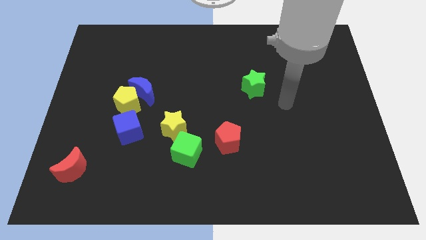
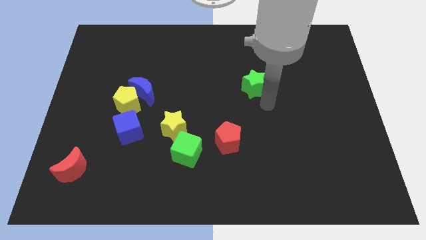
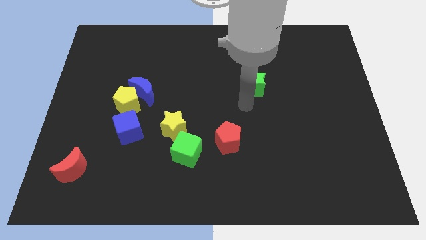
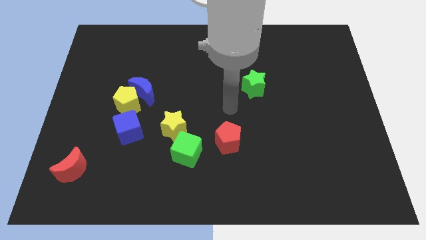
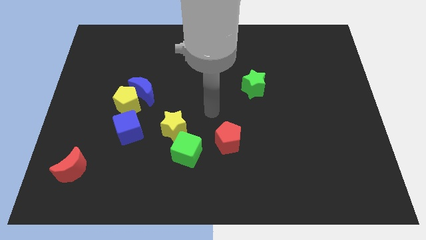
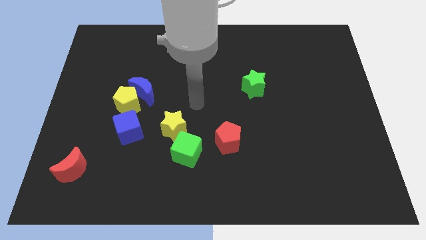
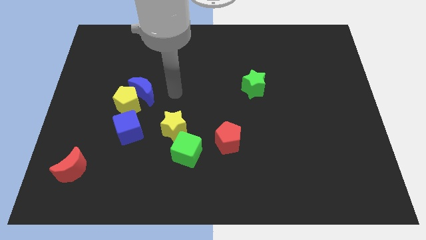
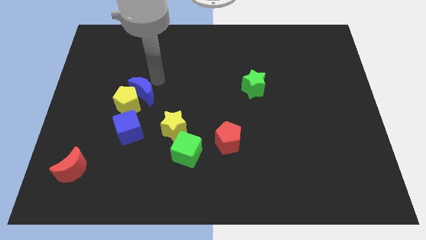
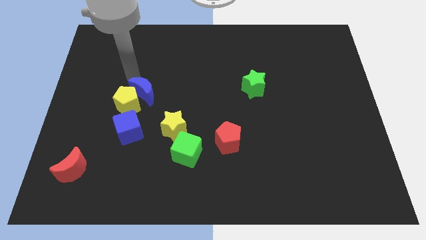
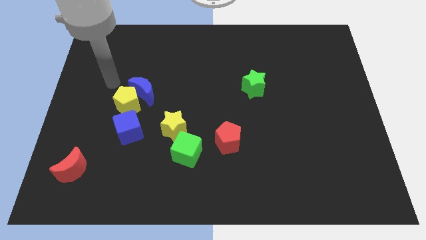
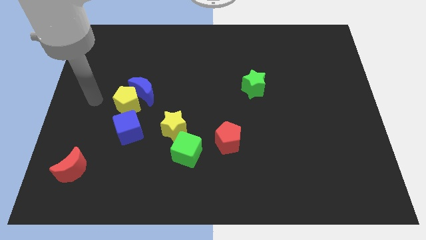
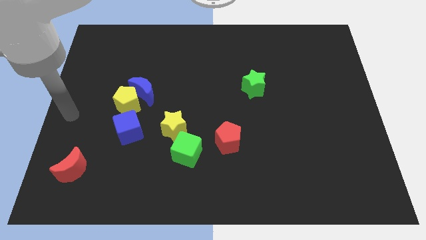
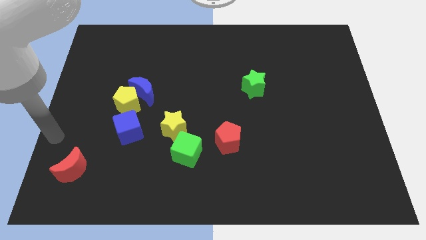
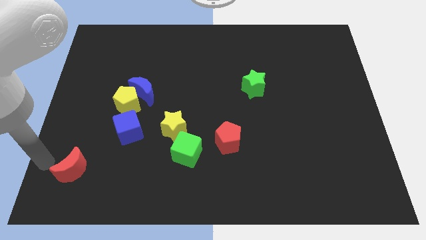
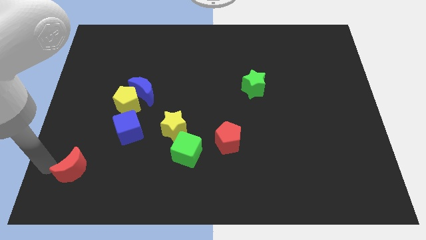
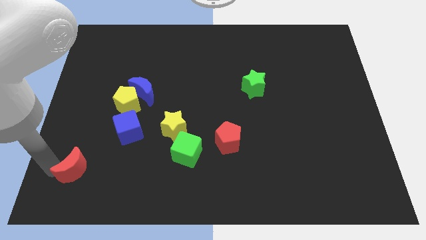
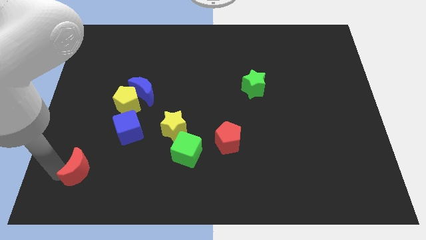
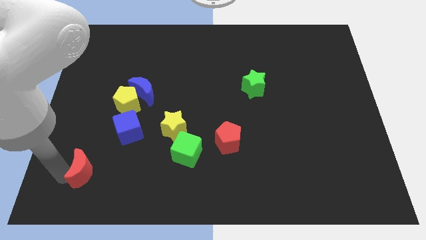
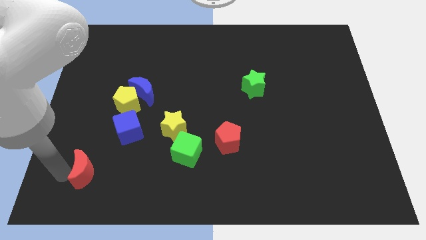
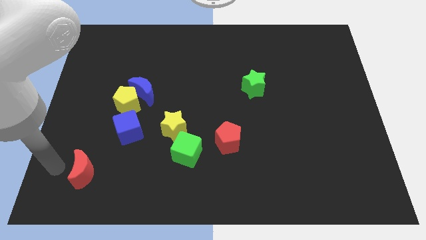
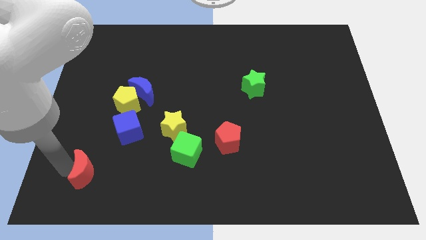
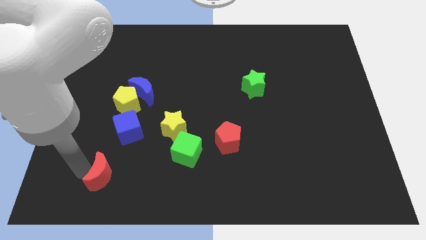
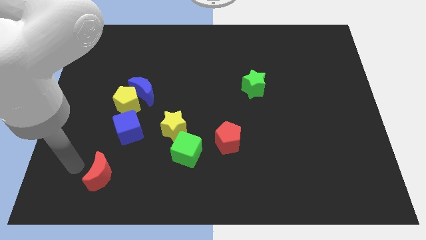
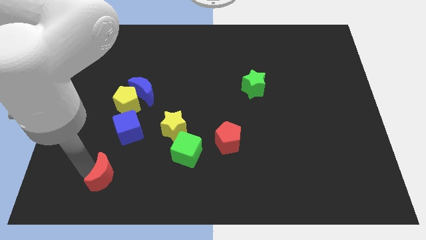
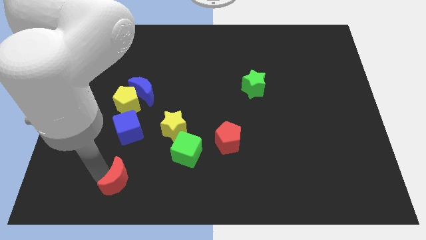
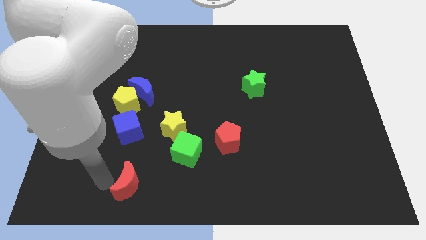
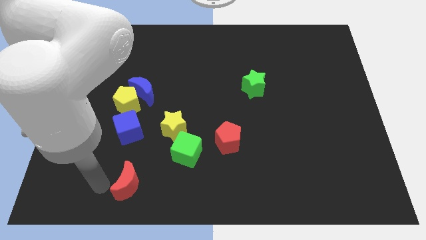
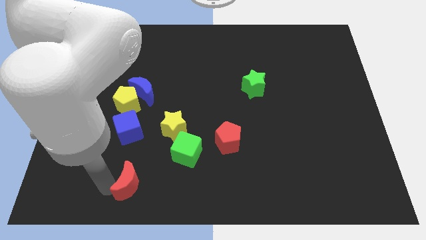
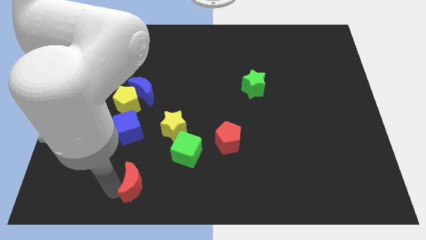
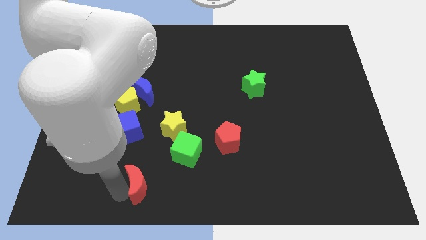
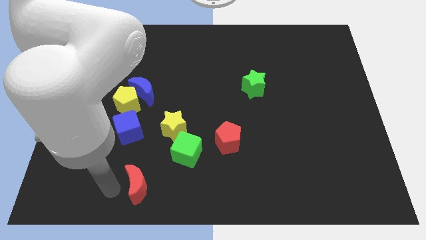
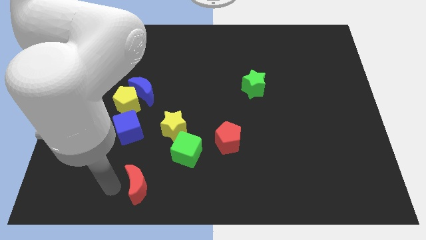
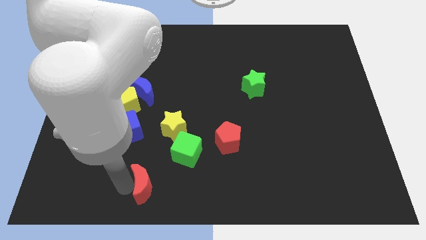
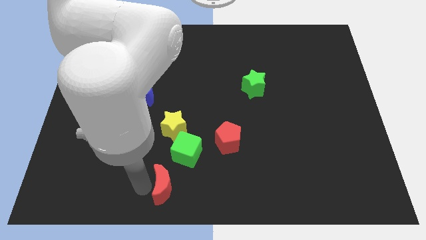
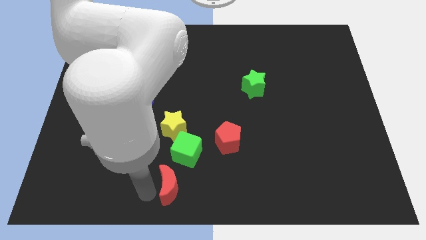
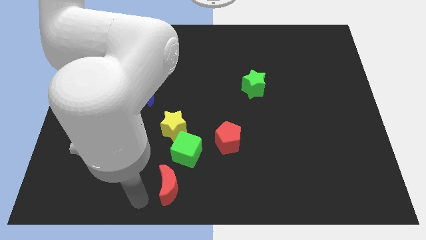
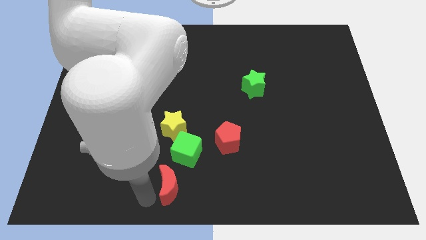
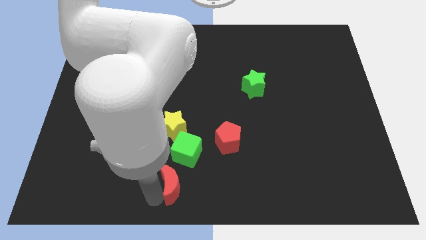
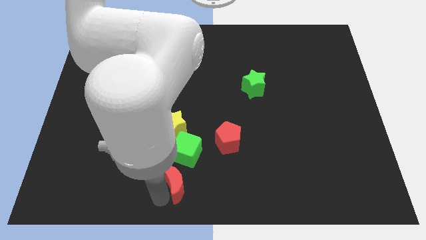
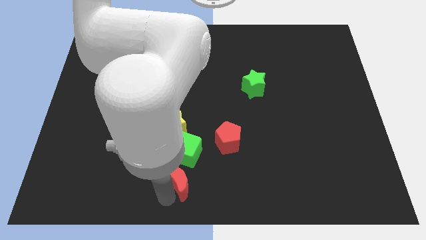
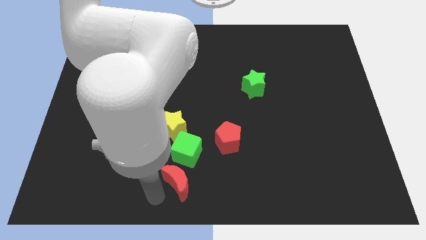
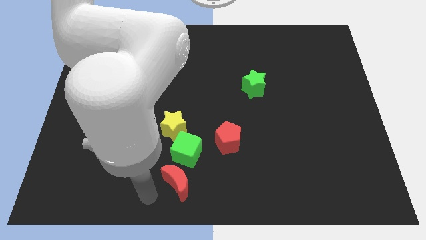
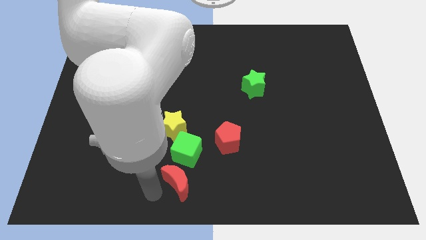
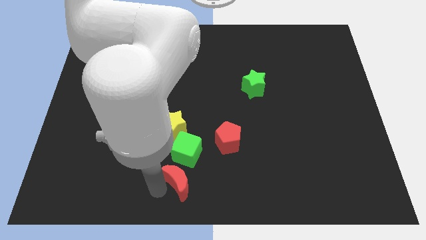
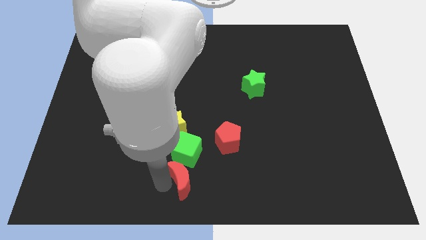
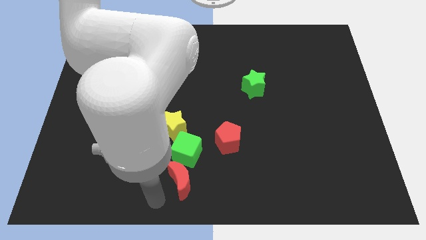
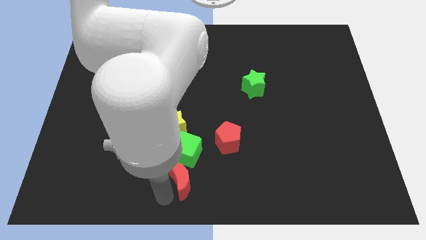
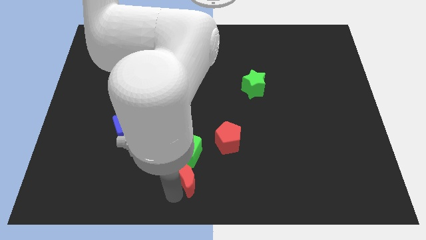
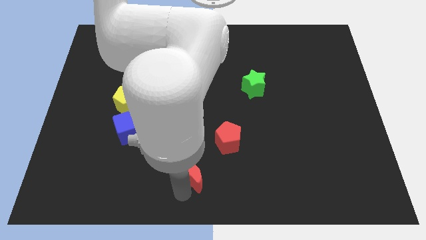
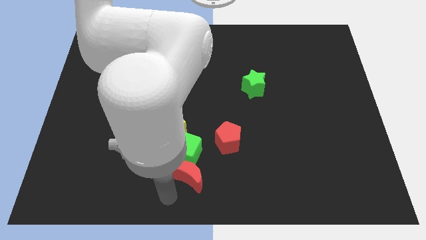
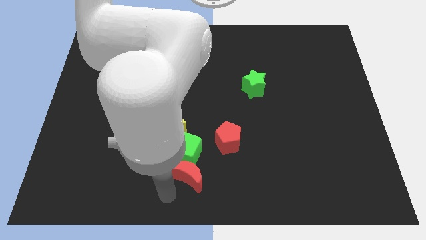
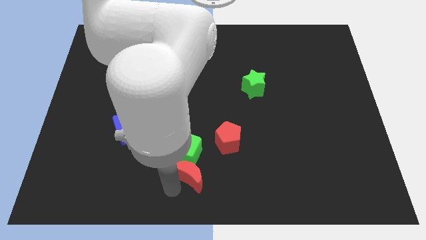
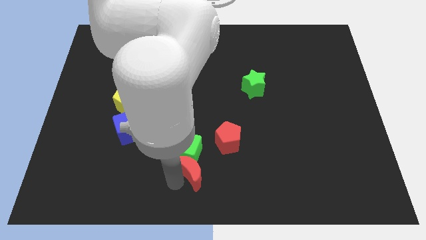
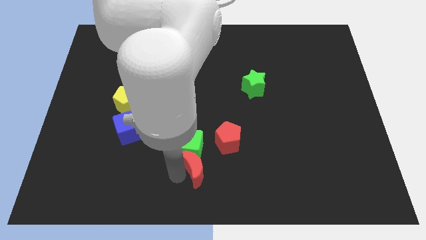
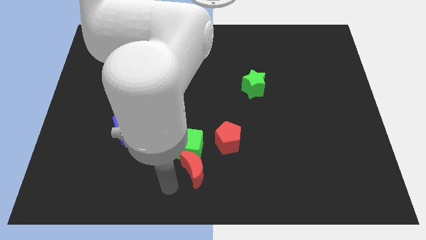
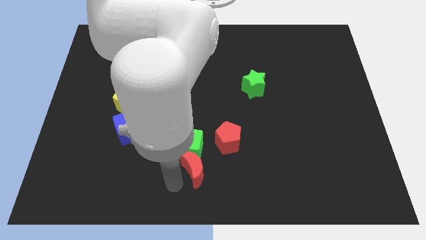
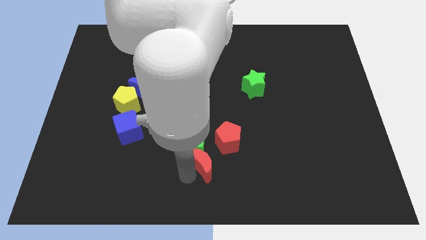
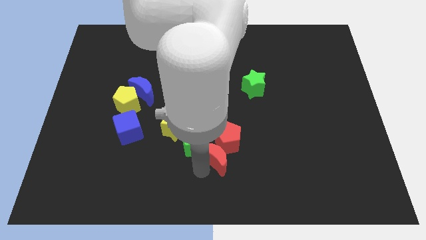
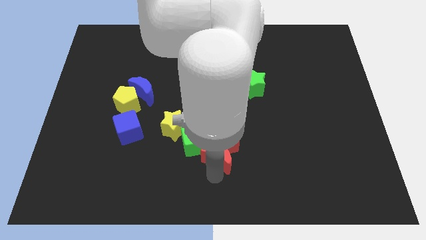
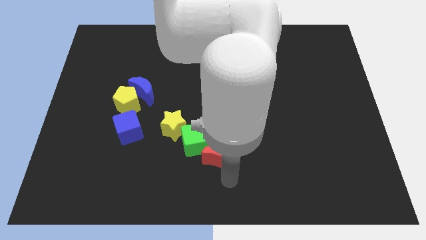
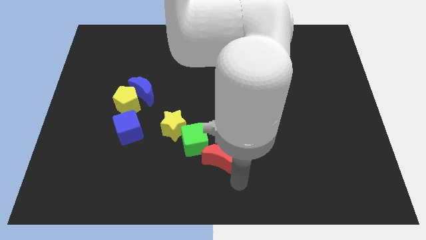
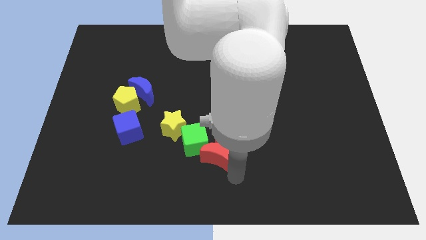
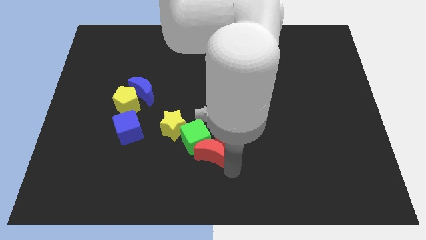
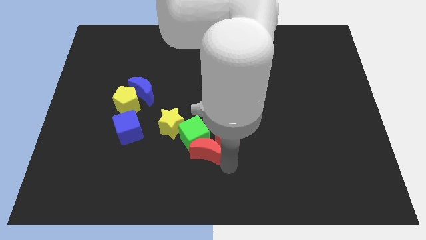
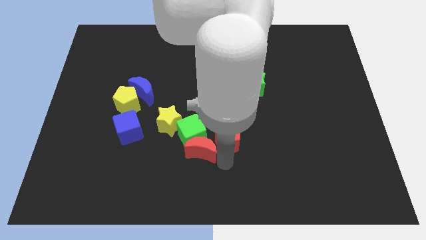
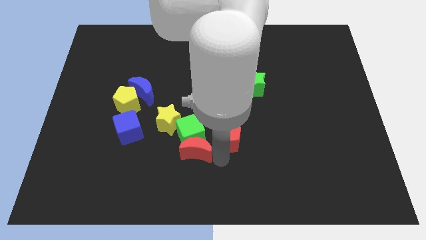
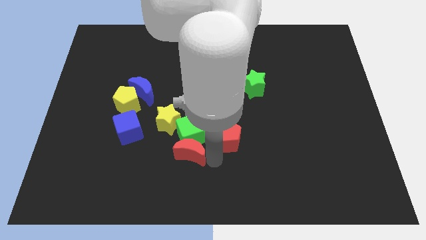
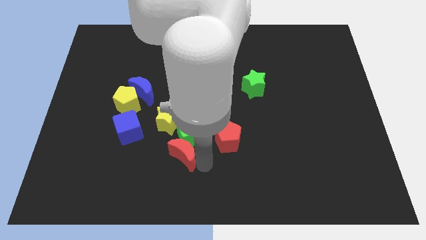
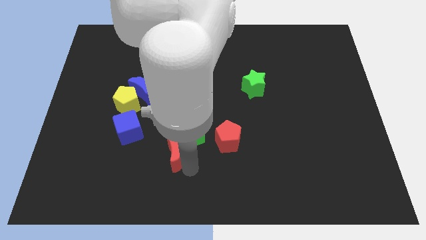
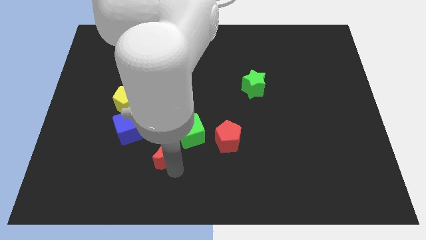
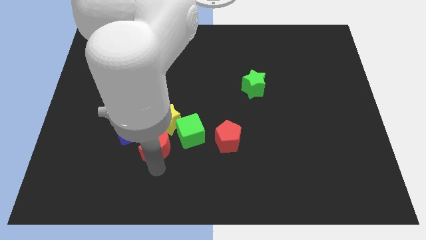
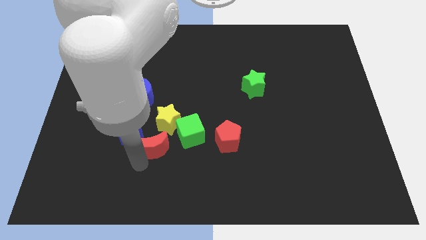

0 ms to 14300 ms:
push the red moon right of the blue cube
